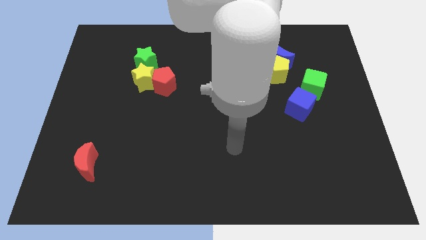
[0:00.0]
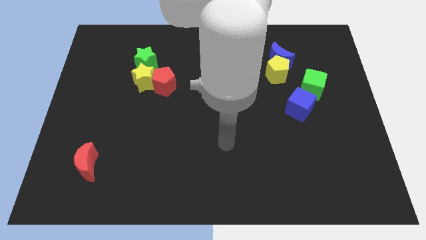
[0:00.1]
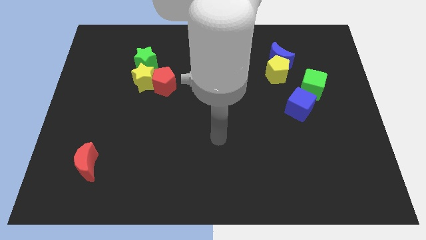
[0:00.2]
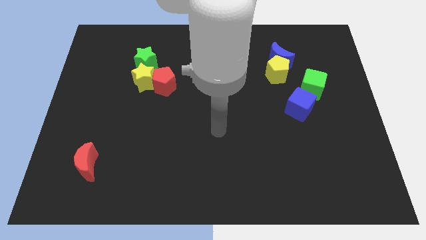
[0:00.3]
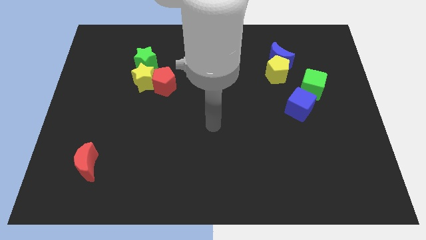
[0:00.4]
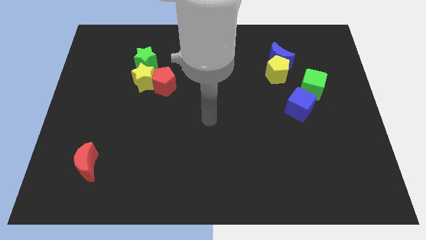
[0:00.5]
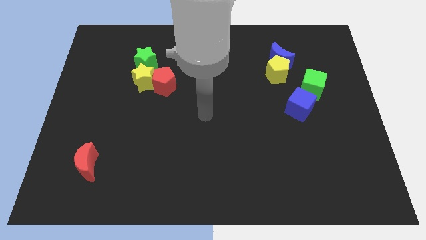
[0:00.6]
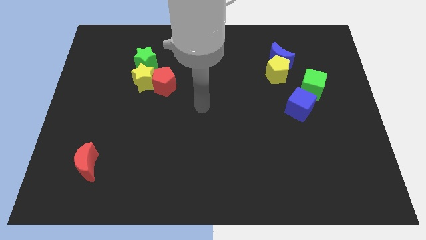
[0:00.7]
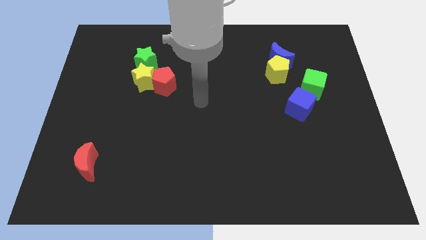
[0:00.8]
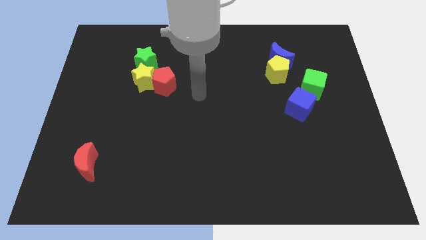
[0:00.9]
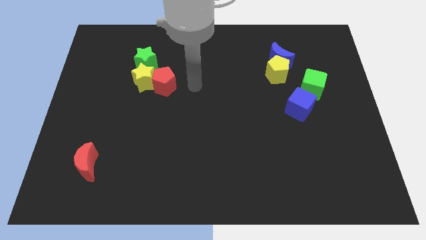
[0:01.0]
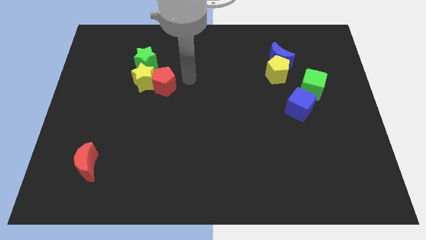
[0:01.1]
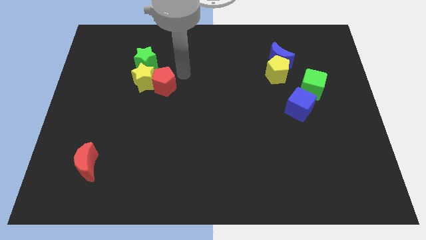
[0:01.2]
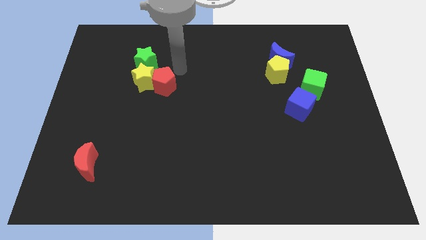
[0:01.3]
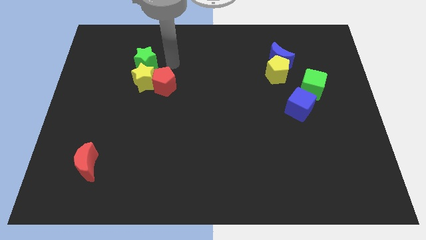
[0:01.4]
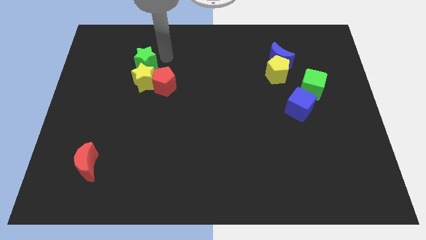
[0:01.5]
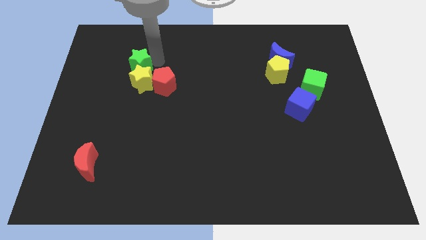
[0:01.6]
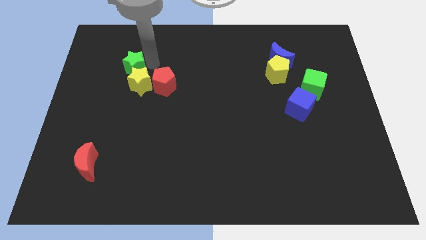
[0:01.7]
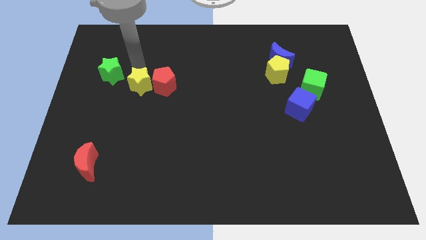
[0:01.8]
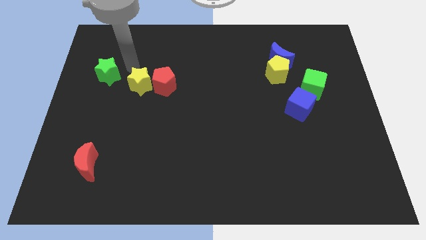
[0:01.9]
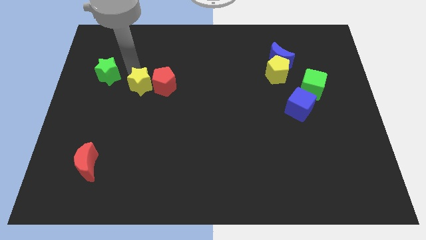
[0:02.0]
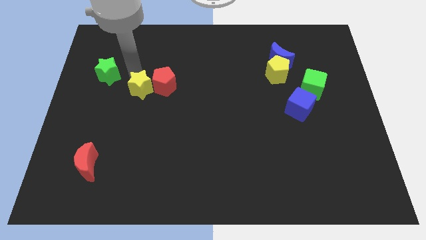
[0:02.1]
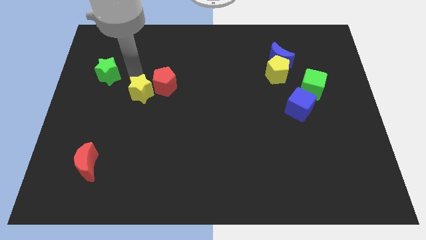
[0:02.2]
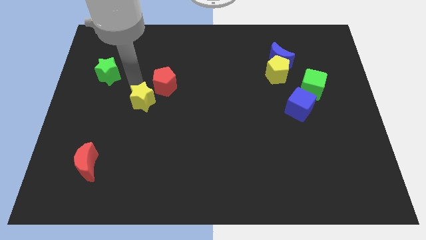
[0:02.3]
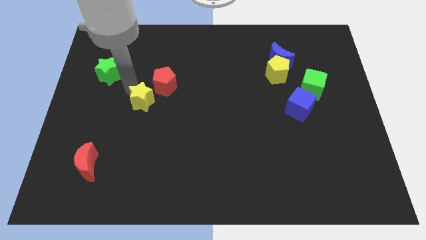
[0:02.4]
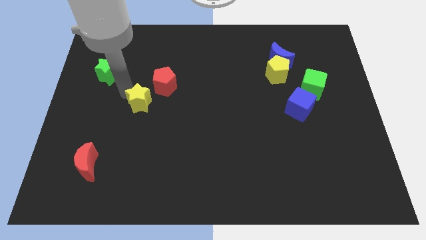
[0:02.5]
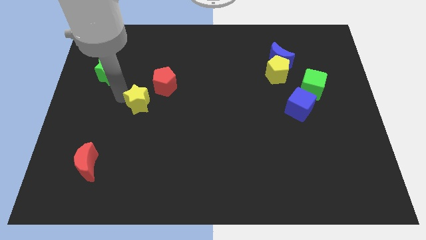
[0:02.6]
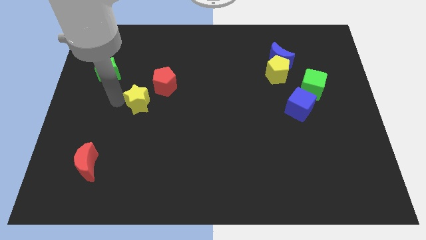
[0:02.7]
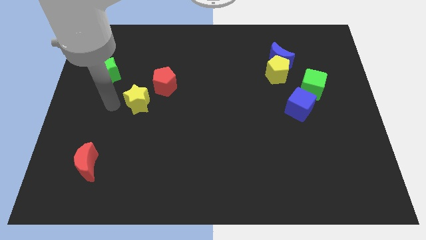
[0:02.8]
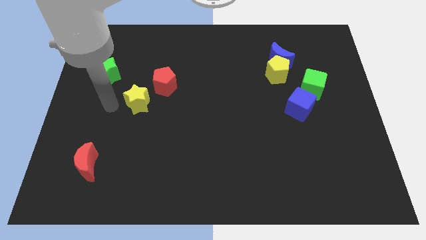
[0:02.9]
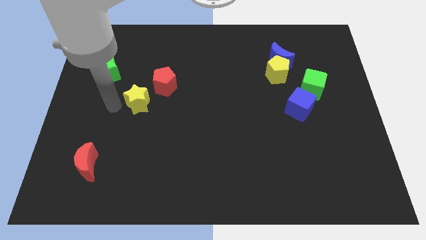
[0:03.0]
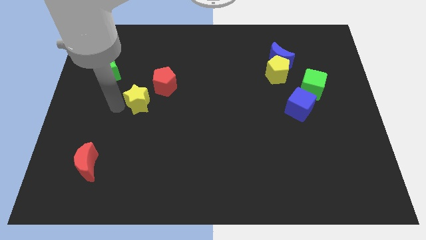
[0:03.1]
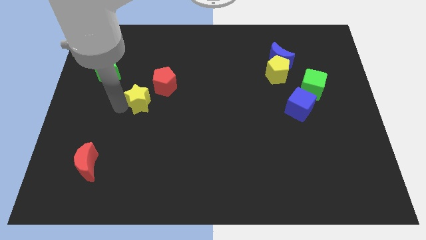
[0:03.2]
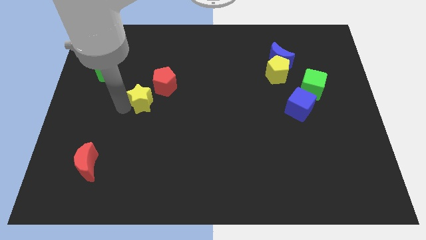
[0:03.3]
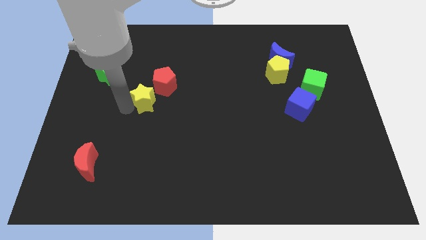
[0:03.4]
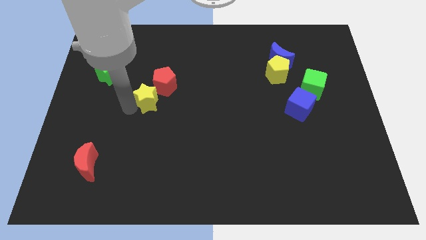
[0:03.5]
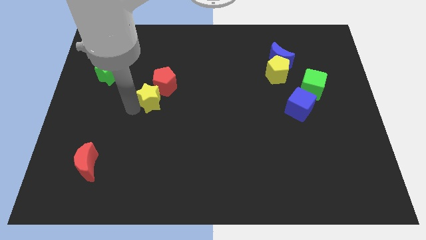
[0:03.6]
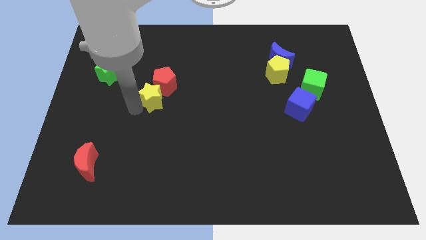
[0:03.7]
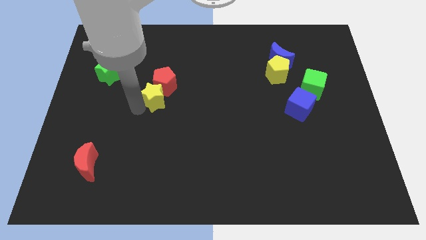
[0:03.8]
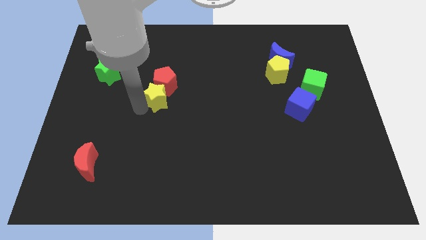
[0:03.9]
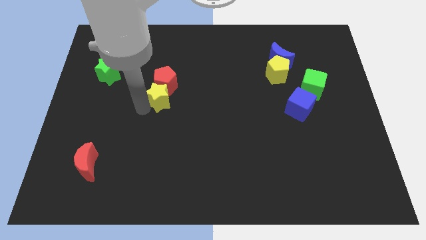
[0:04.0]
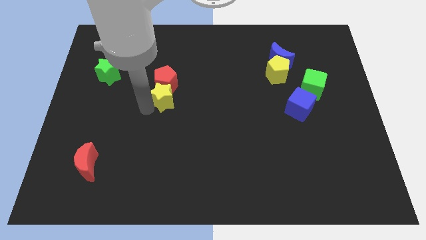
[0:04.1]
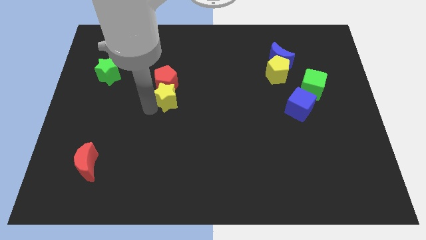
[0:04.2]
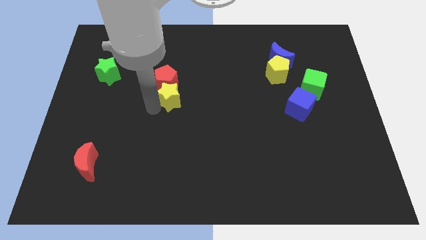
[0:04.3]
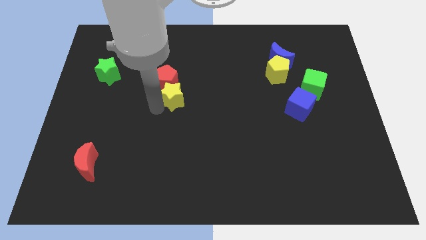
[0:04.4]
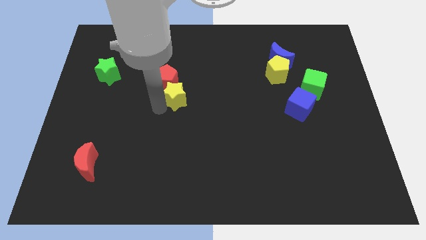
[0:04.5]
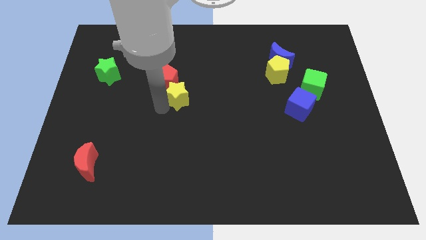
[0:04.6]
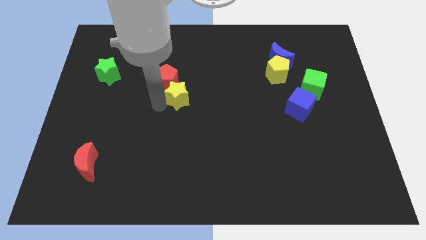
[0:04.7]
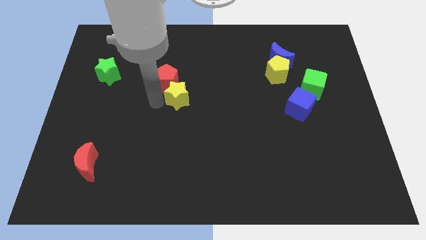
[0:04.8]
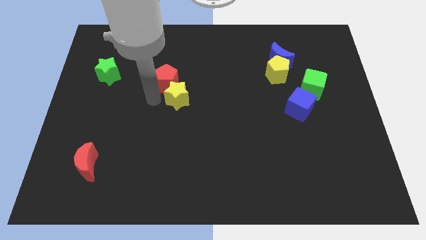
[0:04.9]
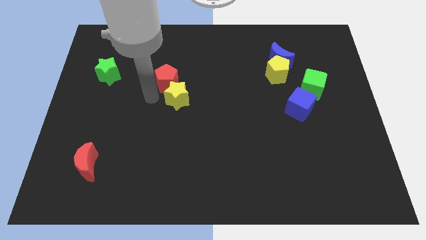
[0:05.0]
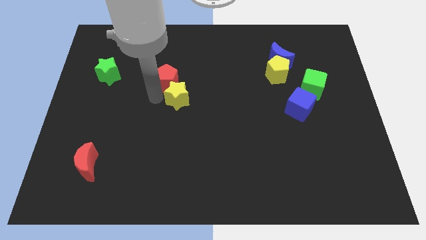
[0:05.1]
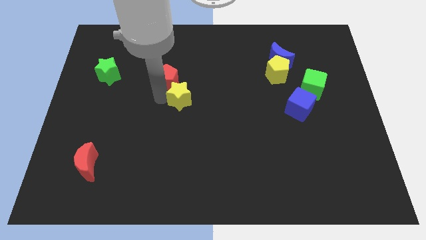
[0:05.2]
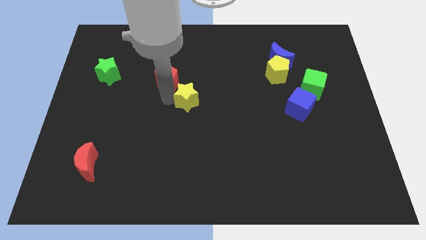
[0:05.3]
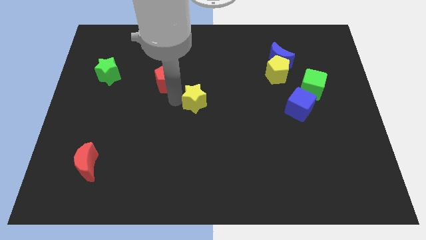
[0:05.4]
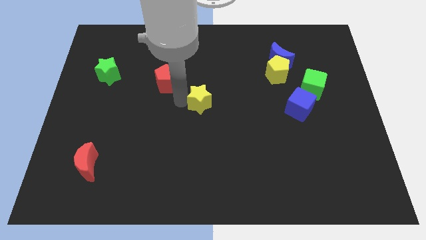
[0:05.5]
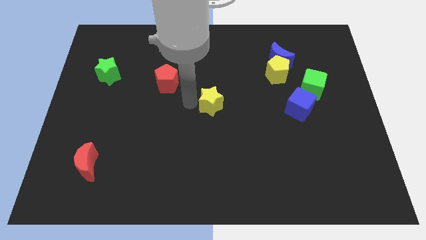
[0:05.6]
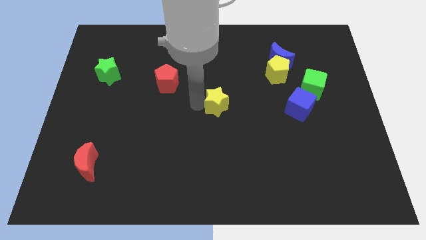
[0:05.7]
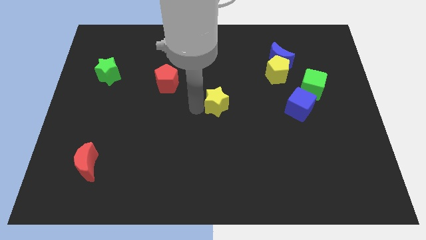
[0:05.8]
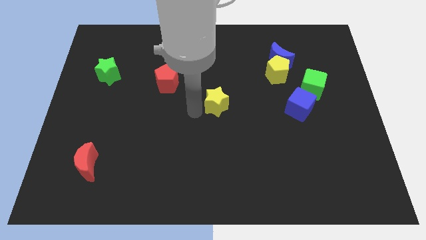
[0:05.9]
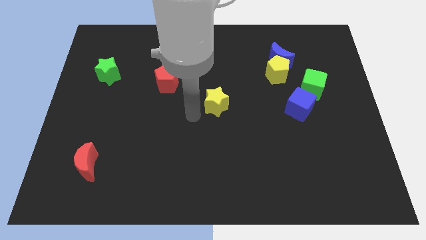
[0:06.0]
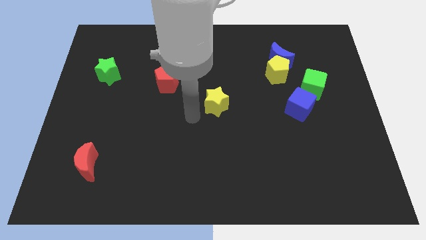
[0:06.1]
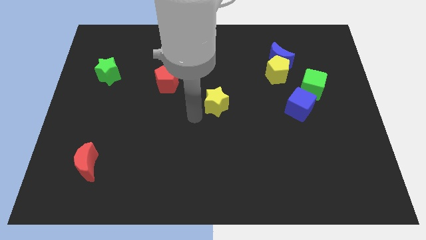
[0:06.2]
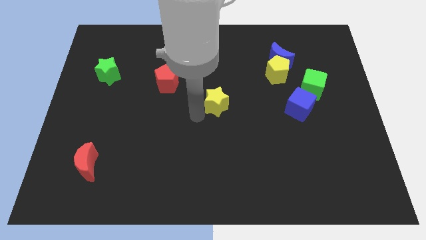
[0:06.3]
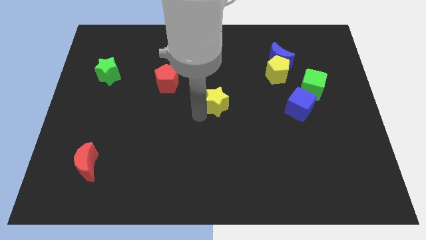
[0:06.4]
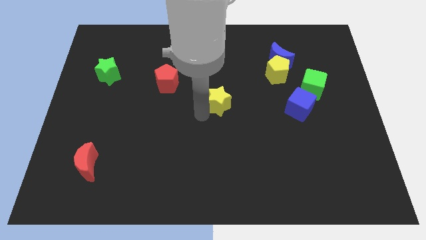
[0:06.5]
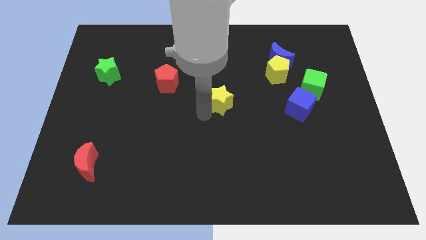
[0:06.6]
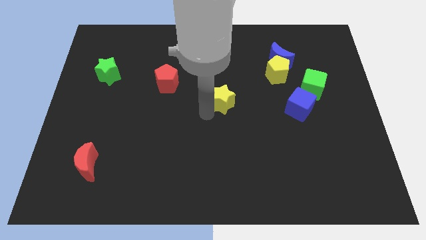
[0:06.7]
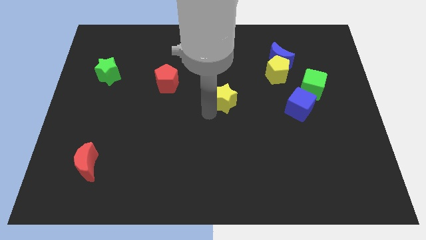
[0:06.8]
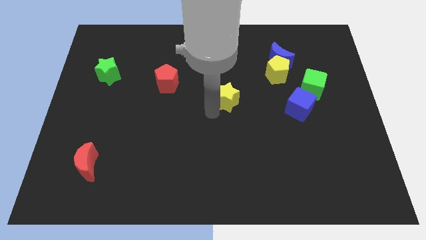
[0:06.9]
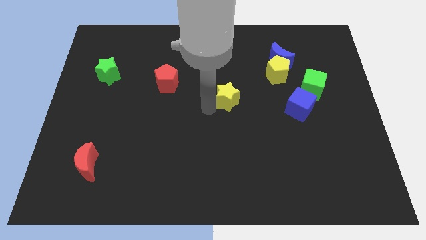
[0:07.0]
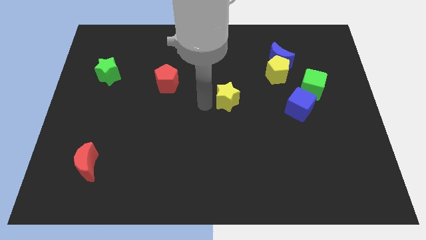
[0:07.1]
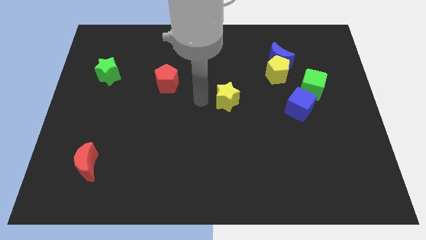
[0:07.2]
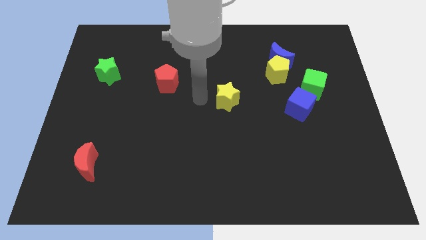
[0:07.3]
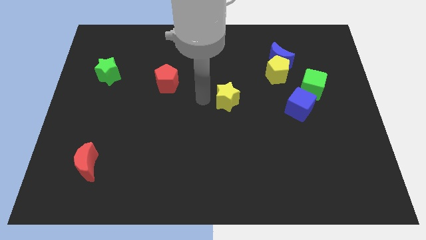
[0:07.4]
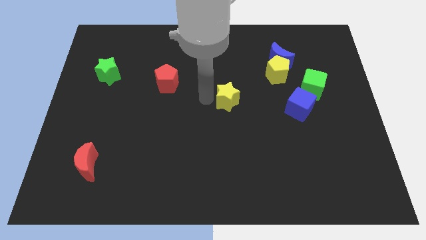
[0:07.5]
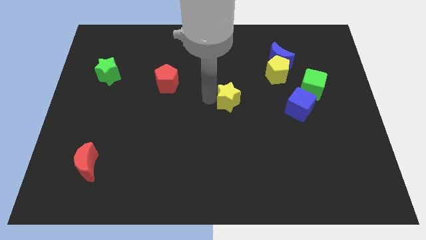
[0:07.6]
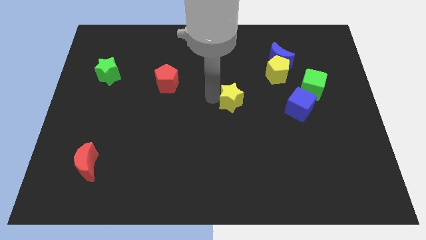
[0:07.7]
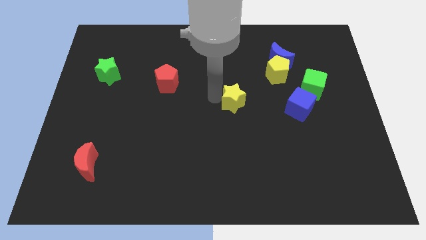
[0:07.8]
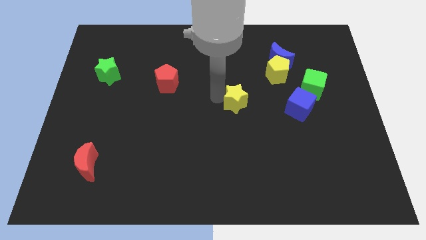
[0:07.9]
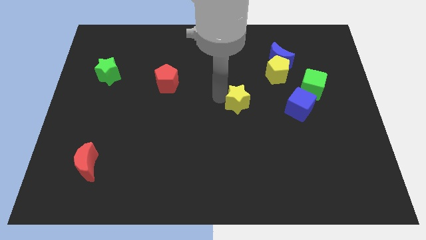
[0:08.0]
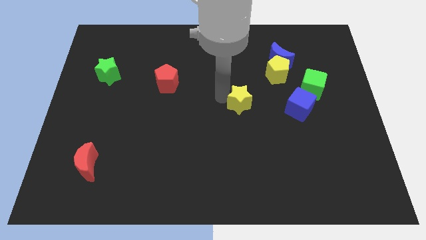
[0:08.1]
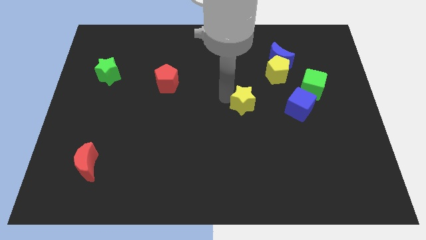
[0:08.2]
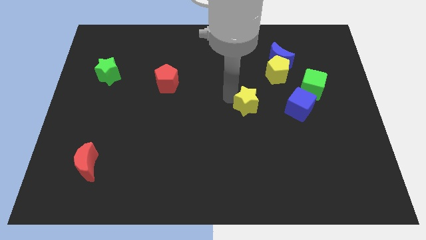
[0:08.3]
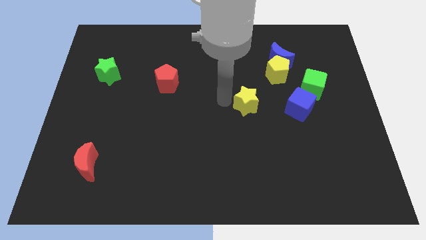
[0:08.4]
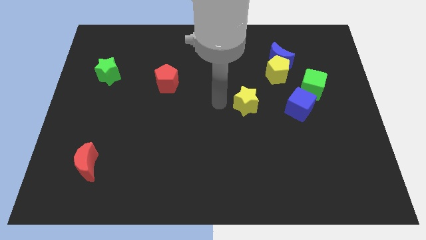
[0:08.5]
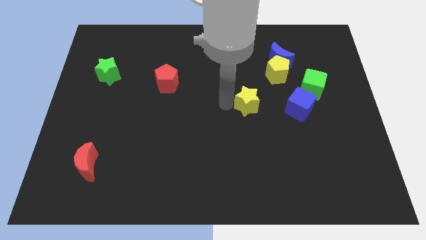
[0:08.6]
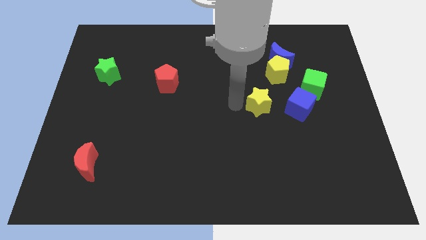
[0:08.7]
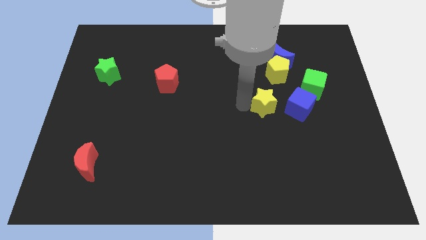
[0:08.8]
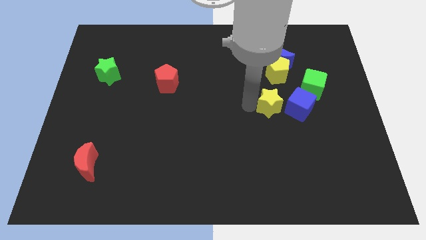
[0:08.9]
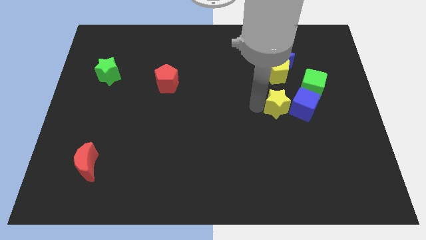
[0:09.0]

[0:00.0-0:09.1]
slide the yellow star close to the blue cube
